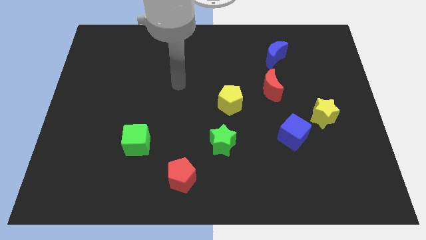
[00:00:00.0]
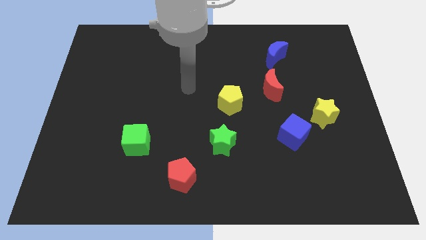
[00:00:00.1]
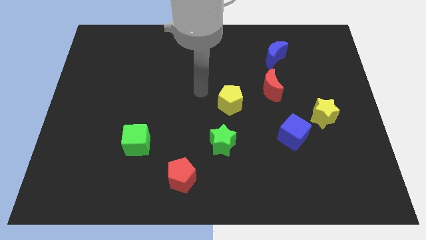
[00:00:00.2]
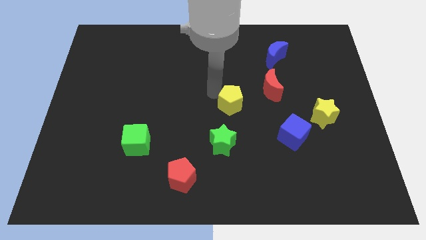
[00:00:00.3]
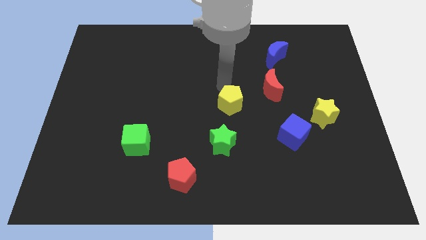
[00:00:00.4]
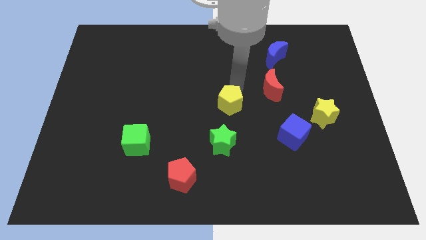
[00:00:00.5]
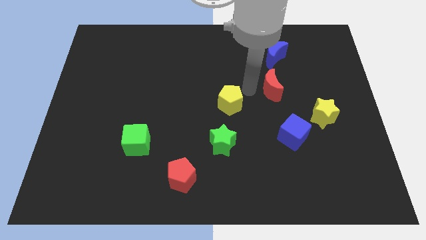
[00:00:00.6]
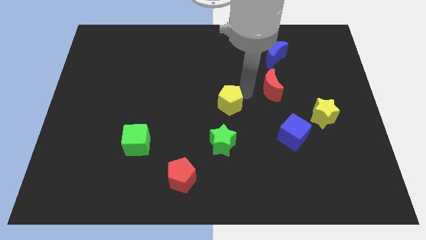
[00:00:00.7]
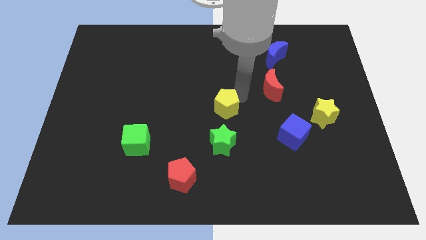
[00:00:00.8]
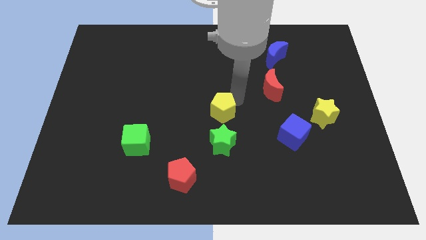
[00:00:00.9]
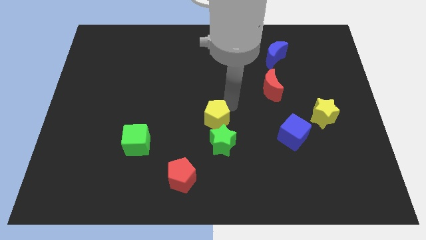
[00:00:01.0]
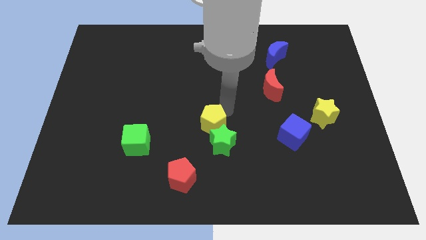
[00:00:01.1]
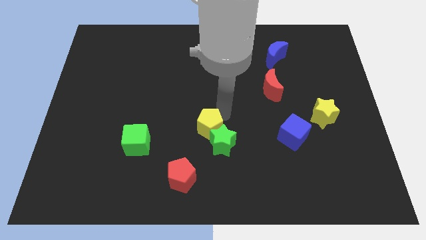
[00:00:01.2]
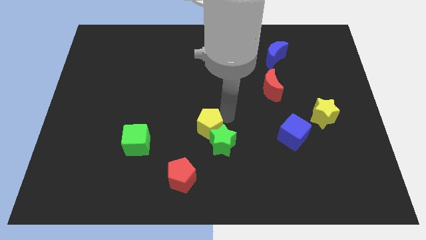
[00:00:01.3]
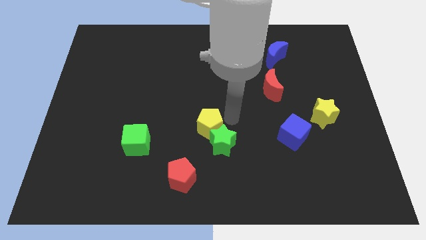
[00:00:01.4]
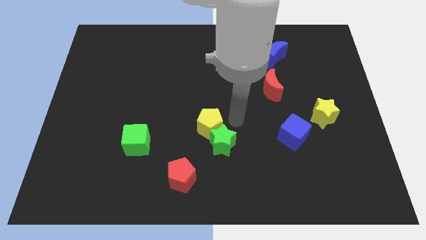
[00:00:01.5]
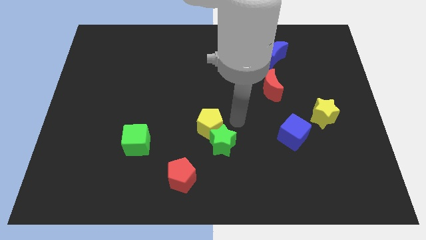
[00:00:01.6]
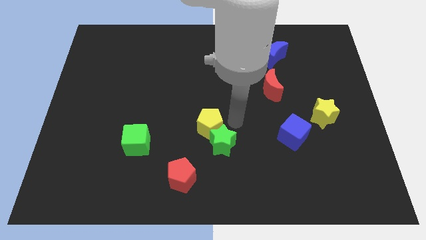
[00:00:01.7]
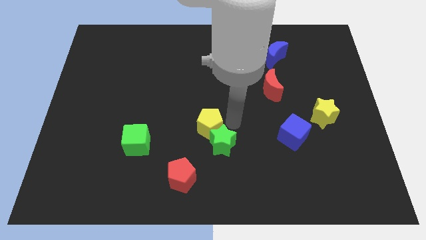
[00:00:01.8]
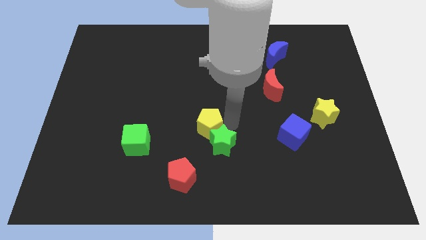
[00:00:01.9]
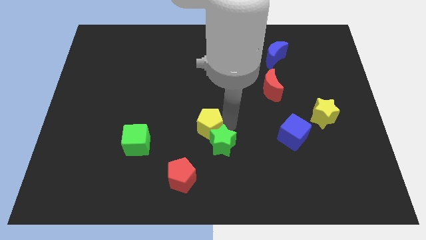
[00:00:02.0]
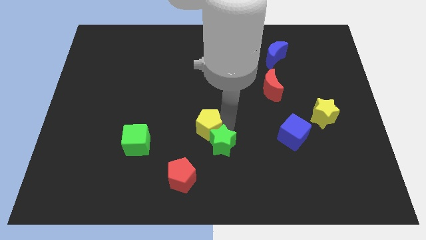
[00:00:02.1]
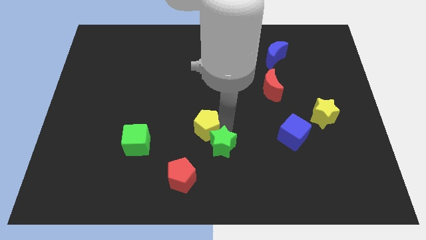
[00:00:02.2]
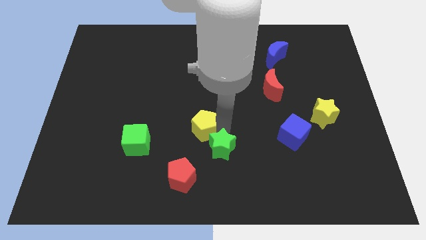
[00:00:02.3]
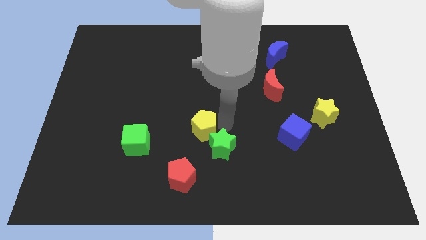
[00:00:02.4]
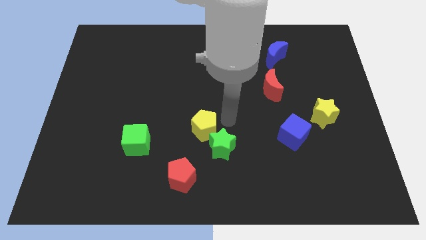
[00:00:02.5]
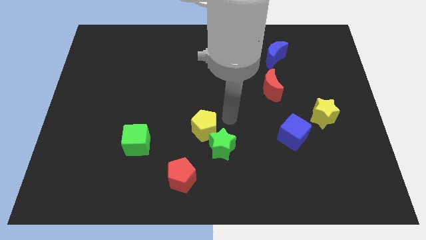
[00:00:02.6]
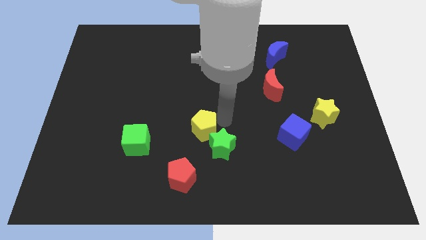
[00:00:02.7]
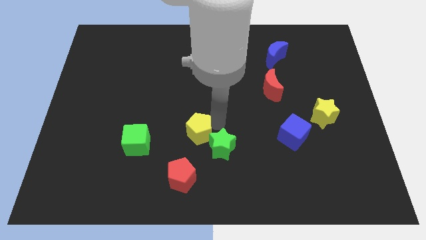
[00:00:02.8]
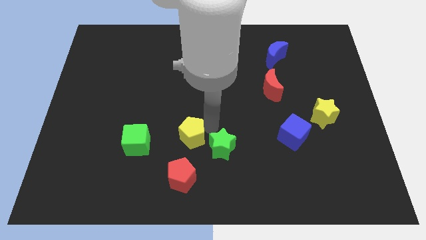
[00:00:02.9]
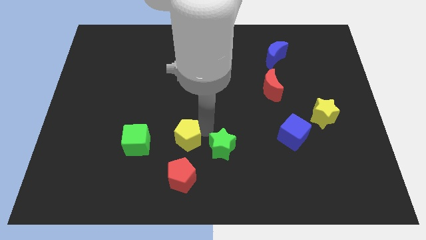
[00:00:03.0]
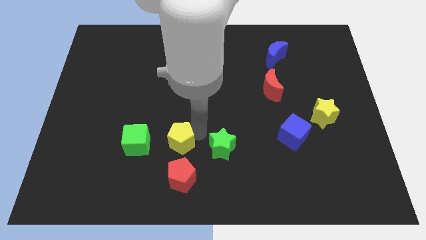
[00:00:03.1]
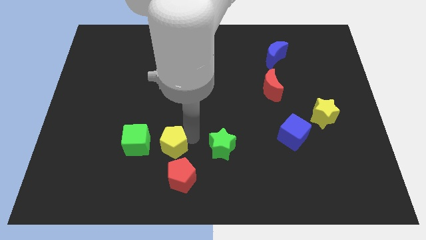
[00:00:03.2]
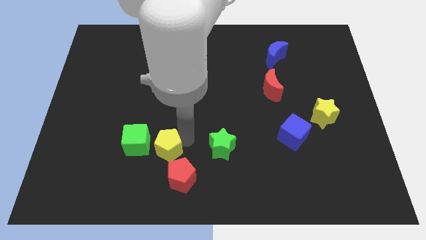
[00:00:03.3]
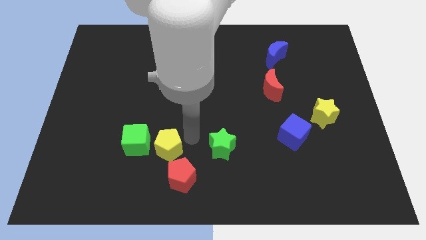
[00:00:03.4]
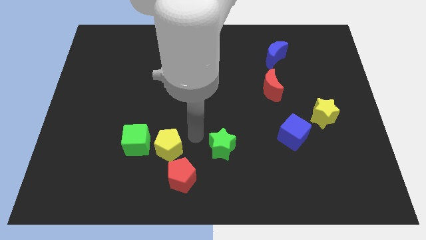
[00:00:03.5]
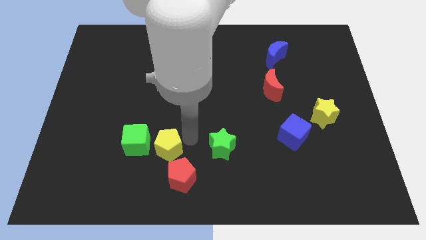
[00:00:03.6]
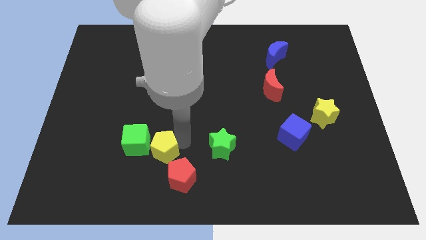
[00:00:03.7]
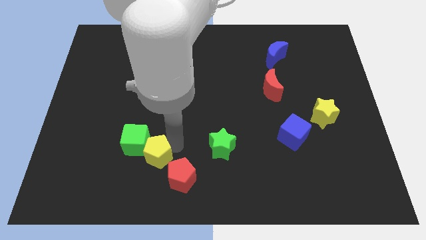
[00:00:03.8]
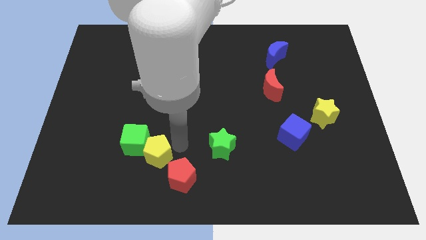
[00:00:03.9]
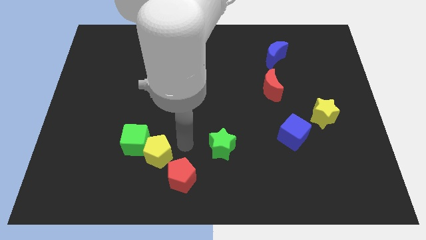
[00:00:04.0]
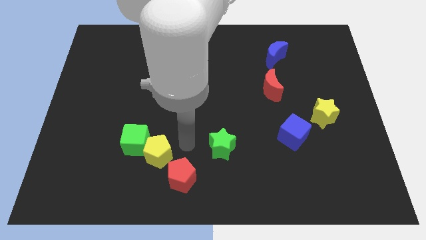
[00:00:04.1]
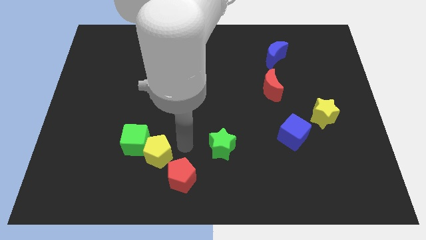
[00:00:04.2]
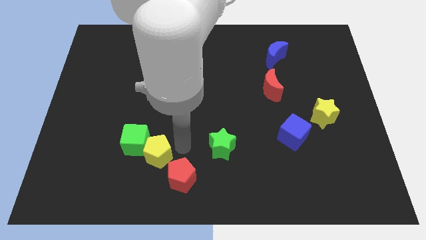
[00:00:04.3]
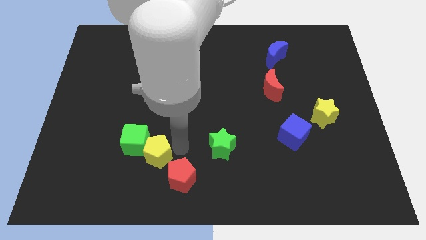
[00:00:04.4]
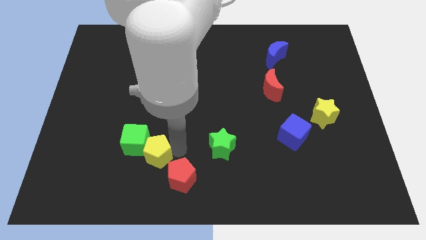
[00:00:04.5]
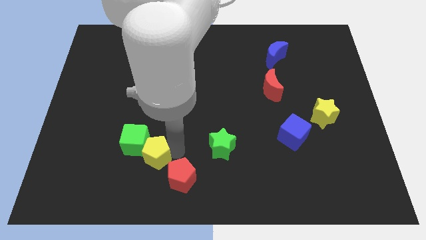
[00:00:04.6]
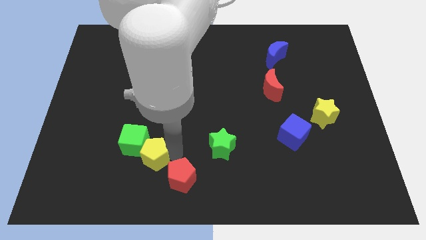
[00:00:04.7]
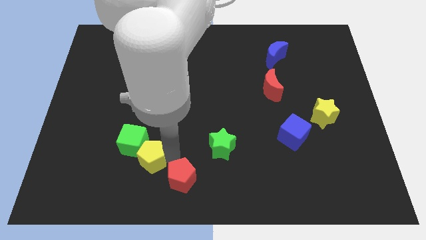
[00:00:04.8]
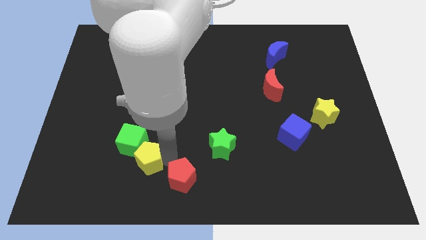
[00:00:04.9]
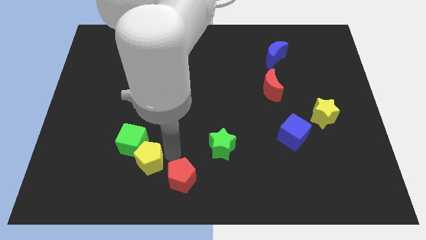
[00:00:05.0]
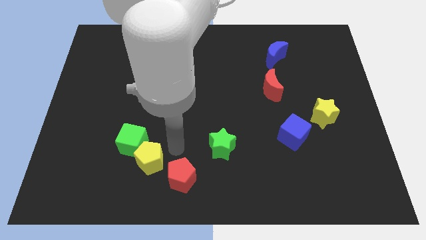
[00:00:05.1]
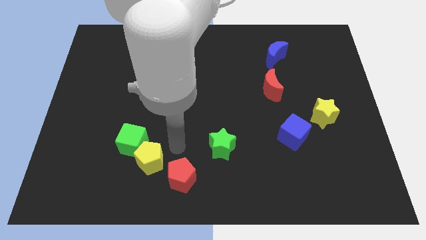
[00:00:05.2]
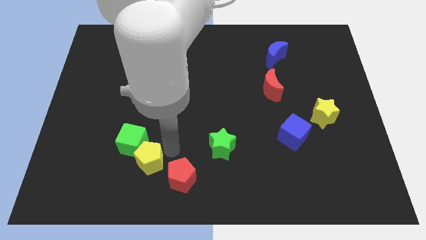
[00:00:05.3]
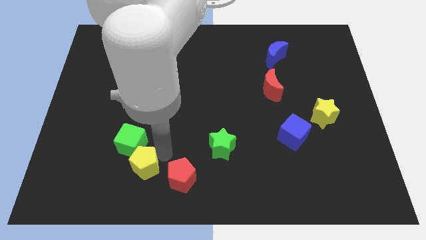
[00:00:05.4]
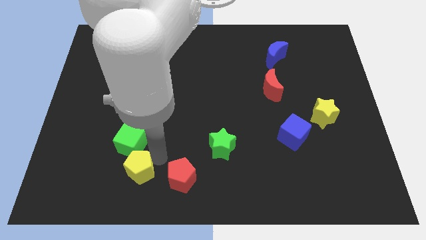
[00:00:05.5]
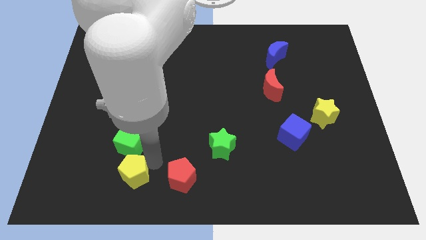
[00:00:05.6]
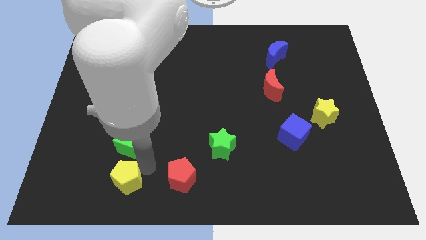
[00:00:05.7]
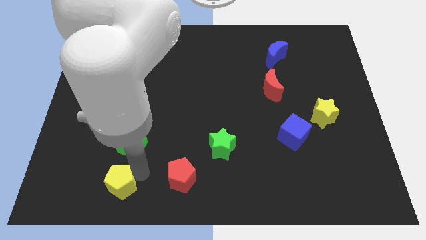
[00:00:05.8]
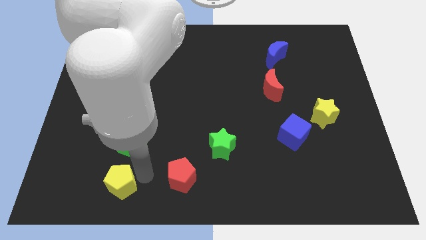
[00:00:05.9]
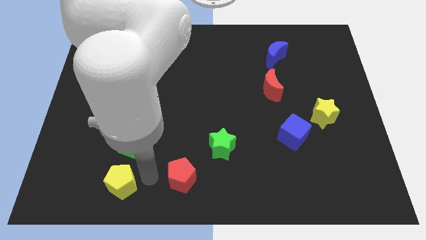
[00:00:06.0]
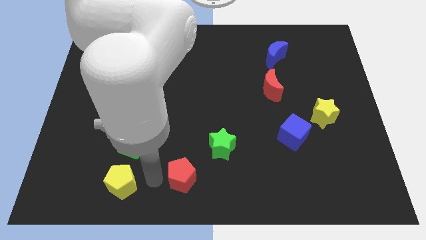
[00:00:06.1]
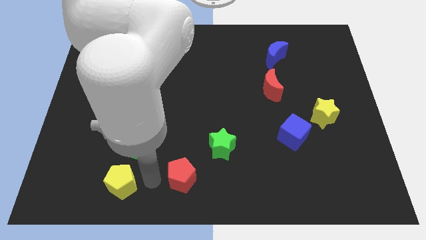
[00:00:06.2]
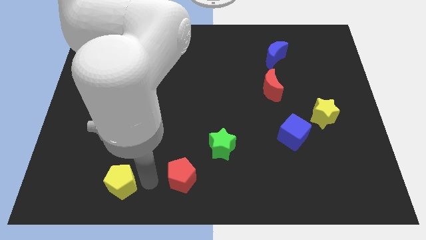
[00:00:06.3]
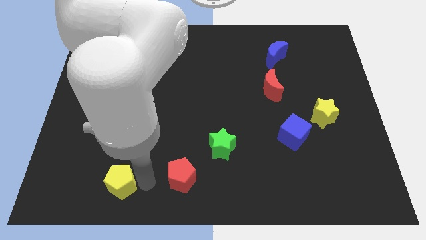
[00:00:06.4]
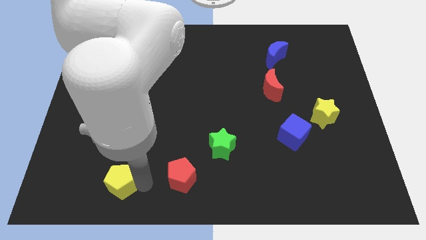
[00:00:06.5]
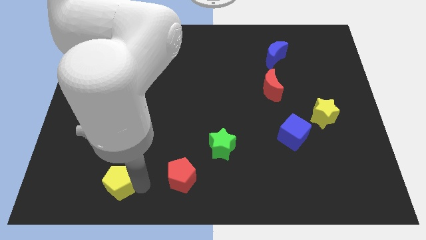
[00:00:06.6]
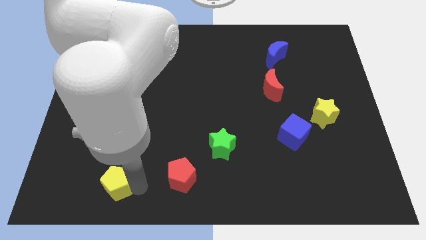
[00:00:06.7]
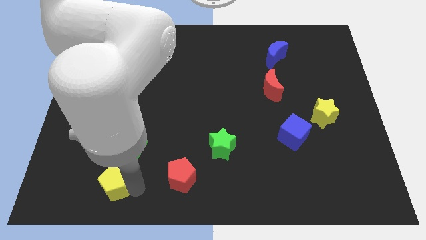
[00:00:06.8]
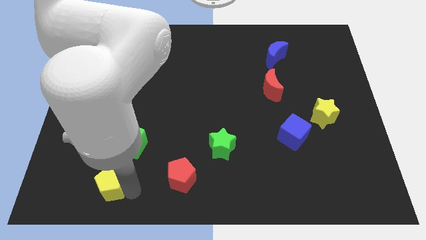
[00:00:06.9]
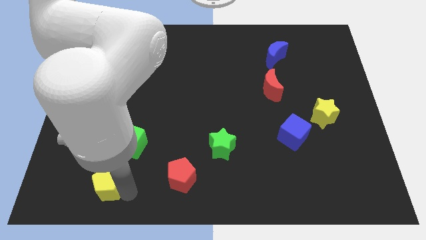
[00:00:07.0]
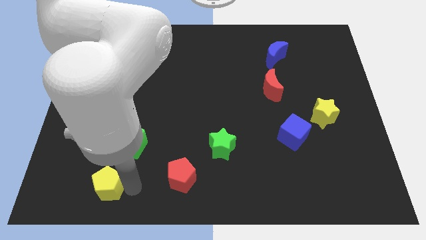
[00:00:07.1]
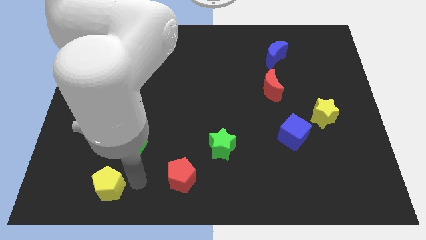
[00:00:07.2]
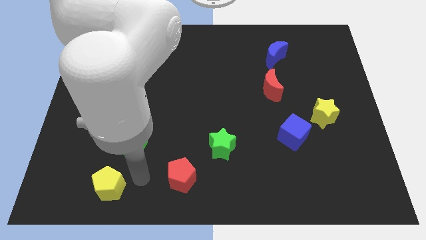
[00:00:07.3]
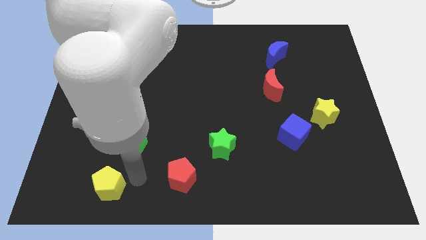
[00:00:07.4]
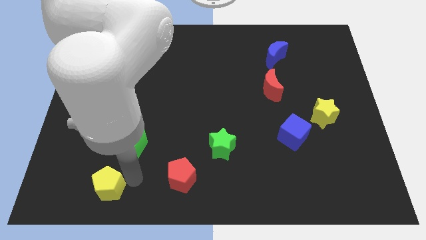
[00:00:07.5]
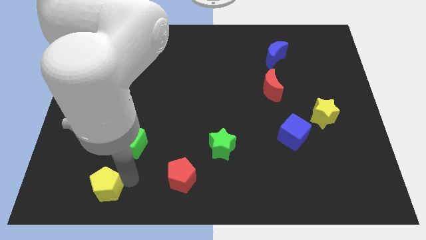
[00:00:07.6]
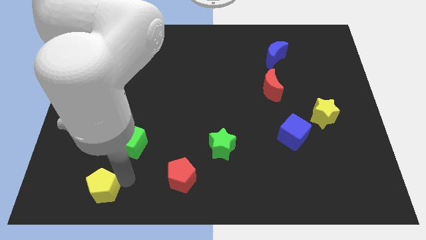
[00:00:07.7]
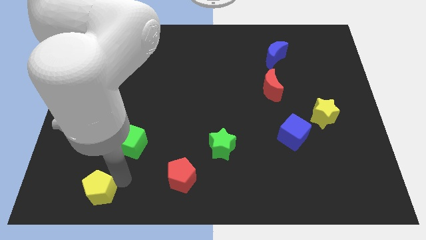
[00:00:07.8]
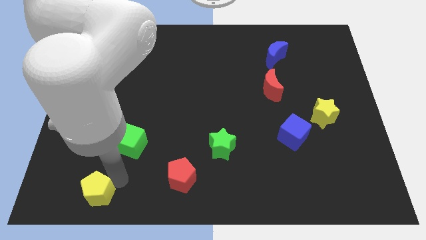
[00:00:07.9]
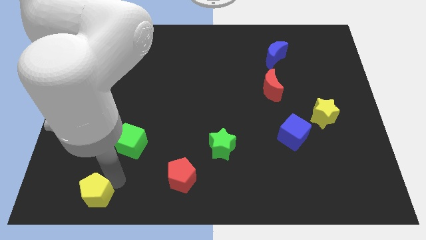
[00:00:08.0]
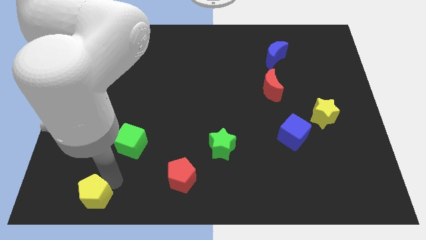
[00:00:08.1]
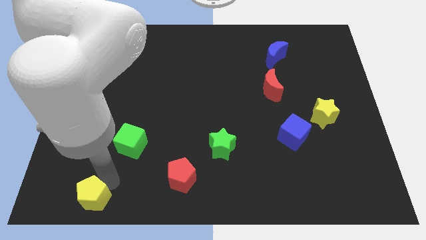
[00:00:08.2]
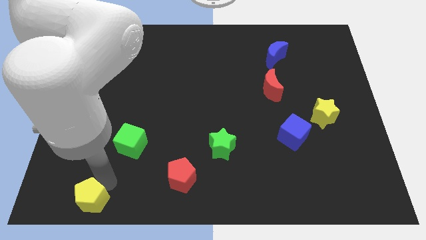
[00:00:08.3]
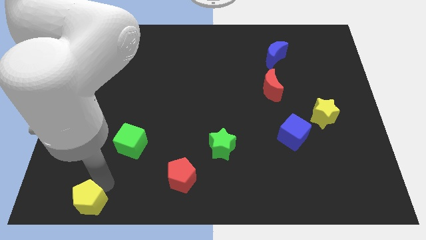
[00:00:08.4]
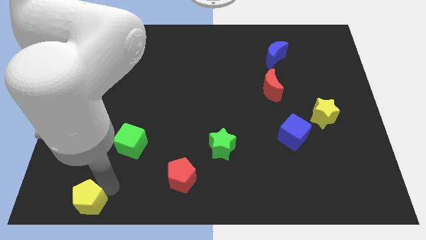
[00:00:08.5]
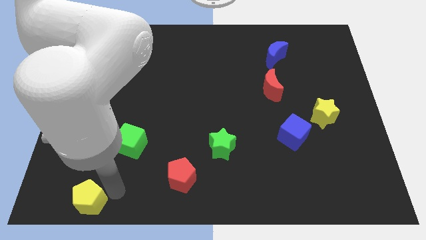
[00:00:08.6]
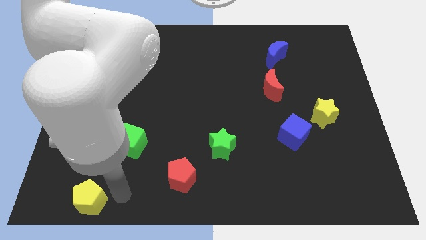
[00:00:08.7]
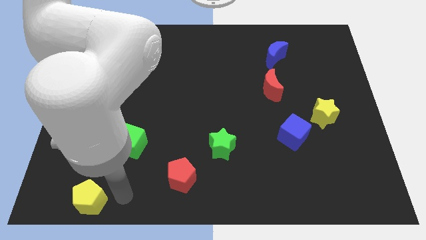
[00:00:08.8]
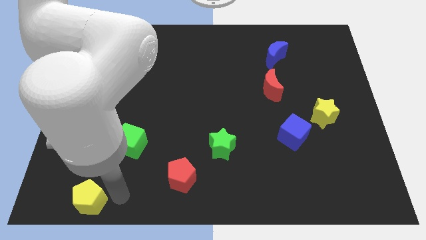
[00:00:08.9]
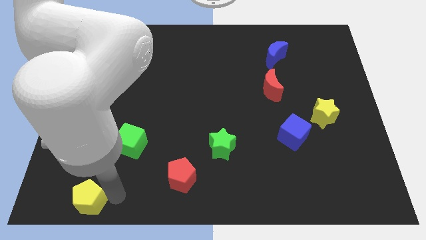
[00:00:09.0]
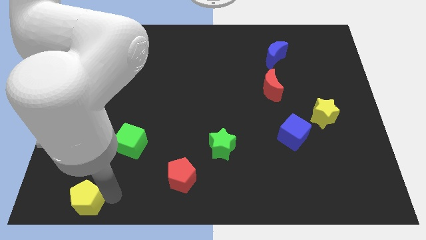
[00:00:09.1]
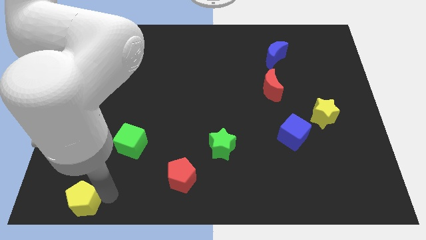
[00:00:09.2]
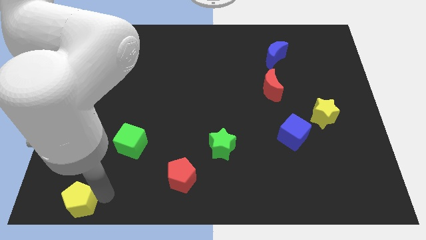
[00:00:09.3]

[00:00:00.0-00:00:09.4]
move the yellow pentagon to the lower left corner
